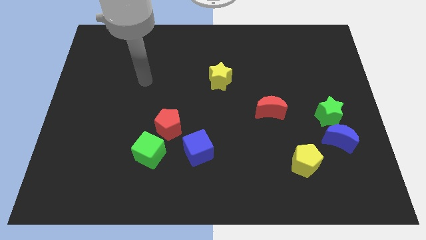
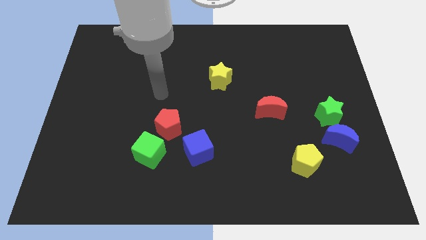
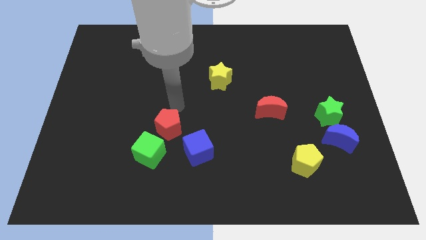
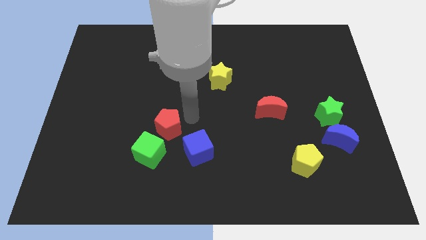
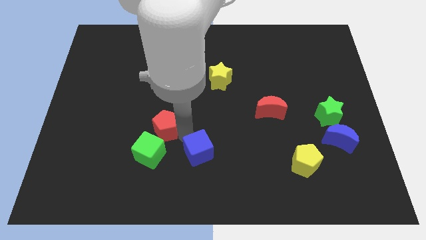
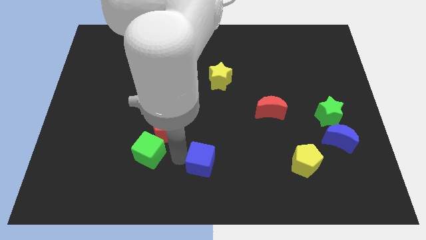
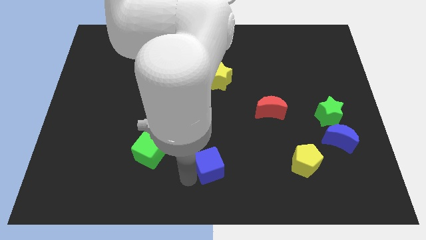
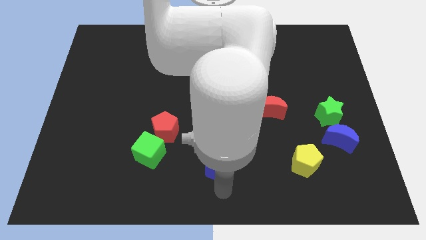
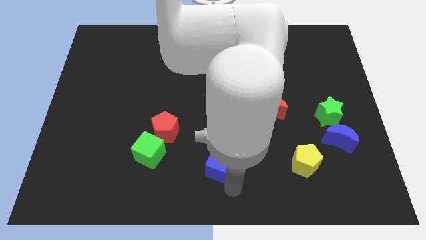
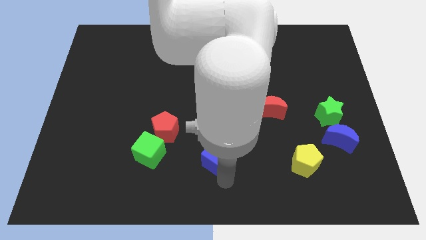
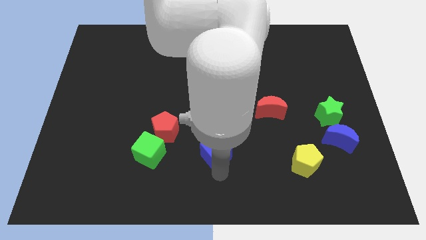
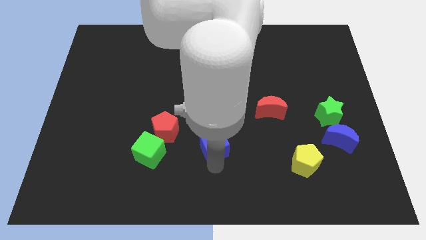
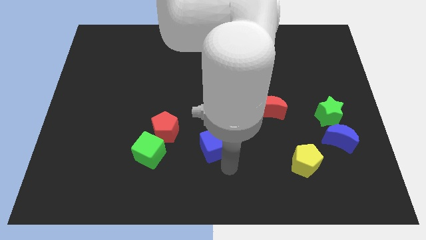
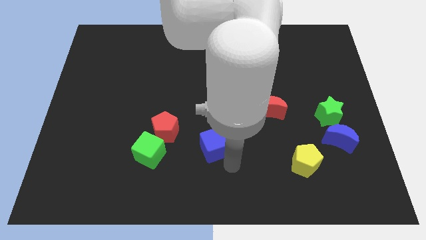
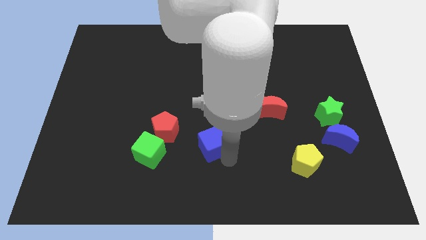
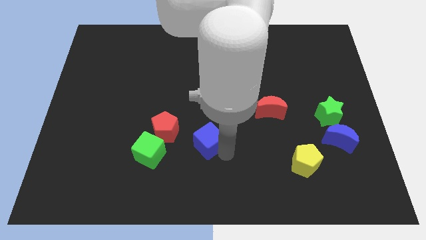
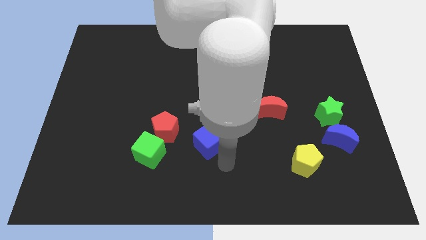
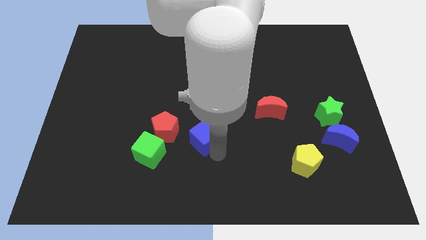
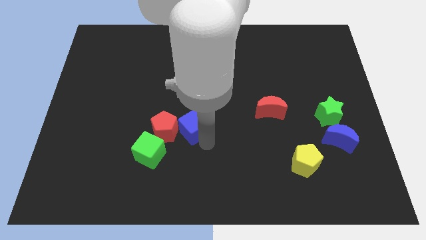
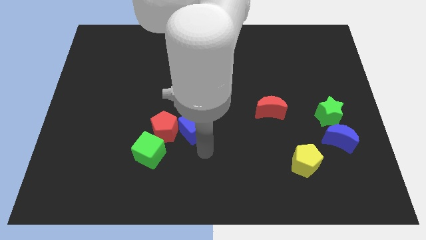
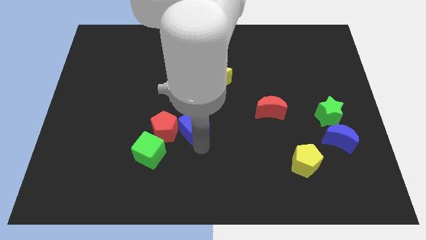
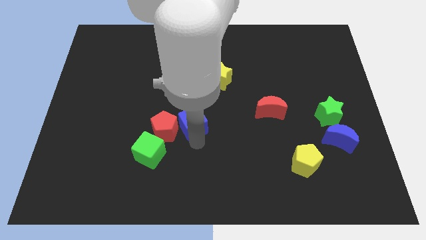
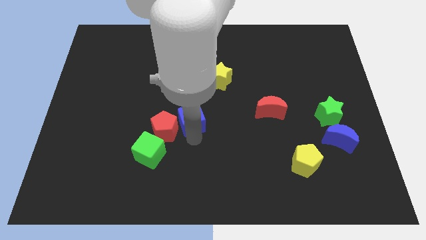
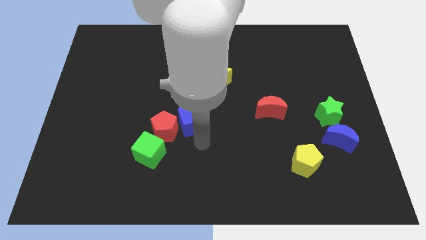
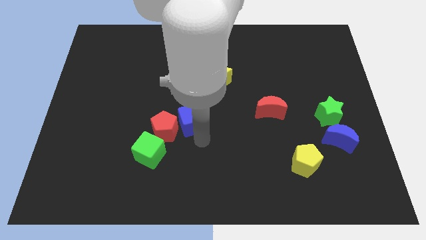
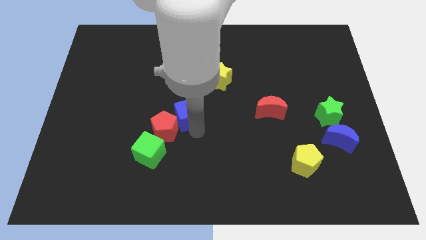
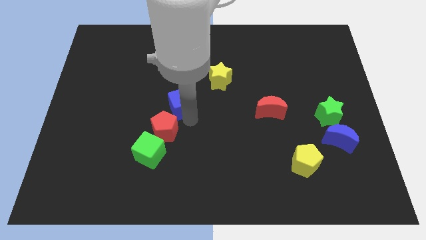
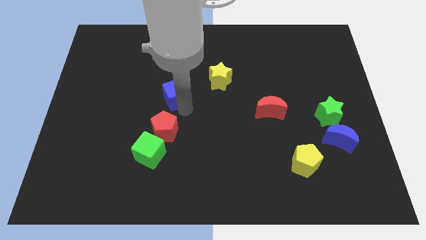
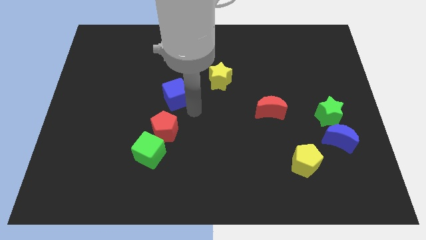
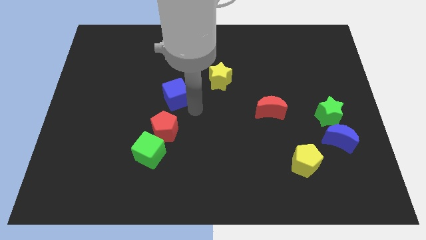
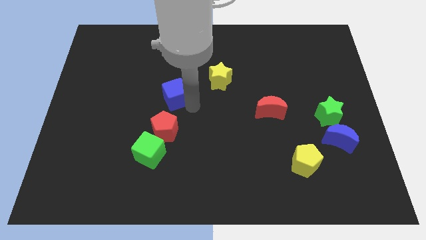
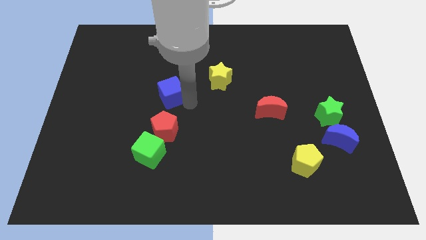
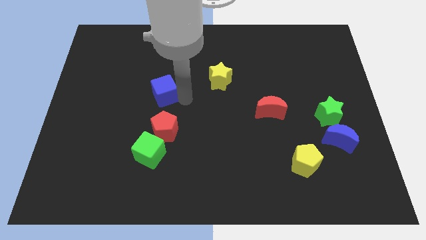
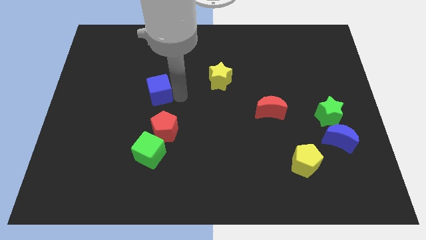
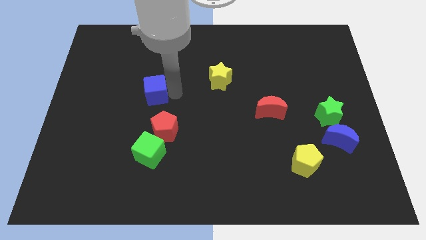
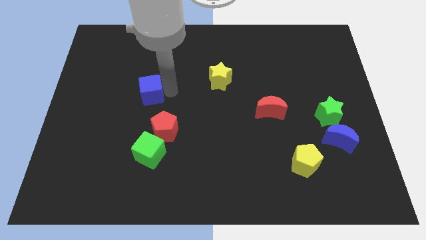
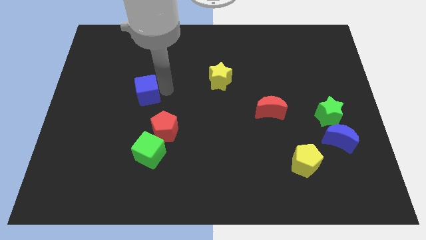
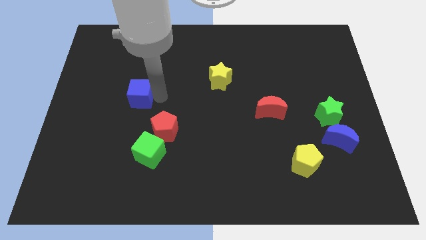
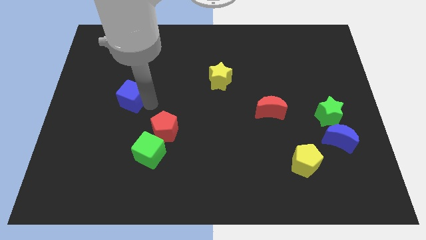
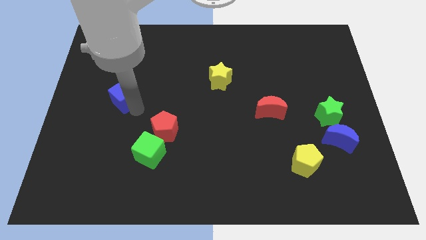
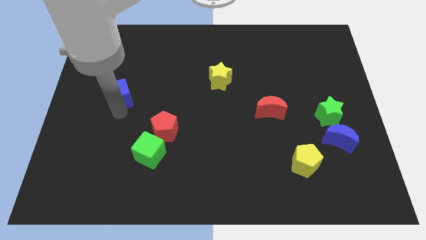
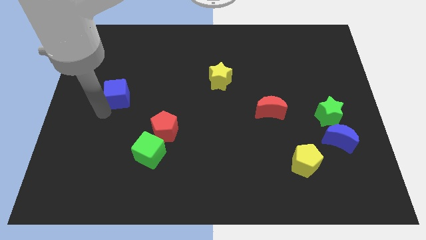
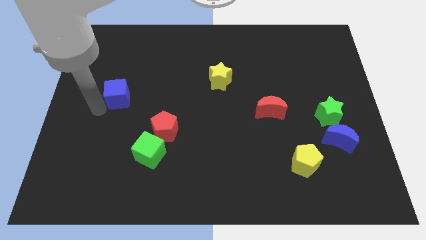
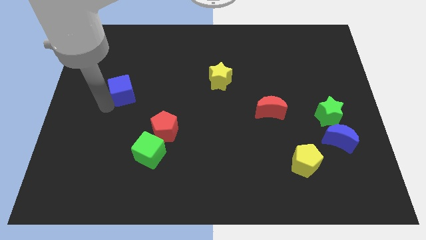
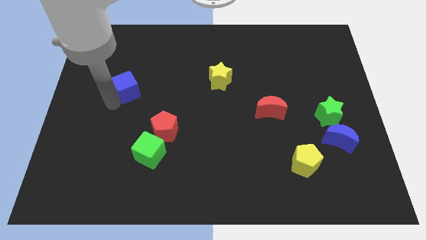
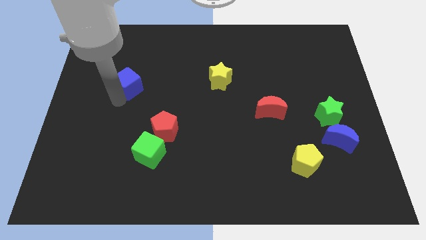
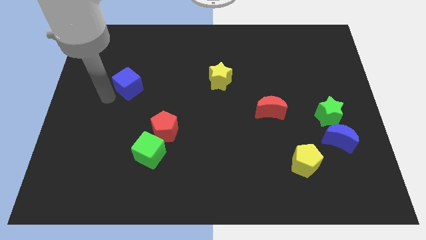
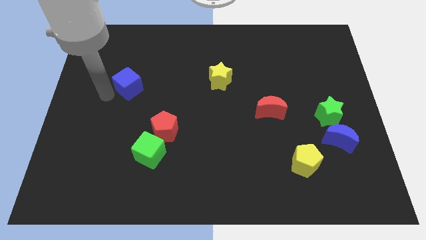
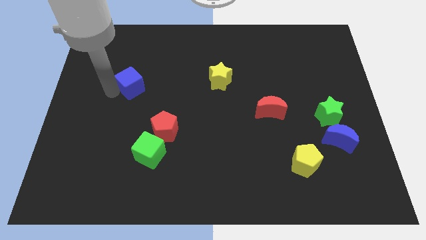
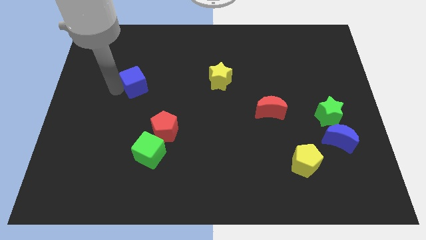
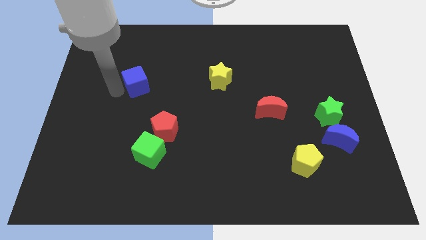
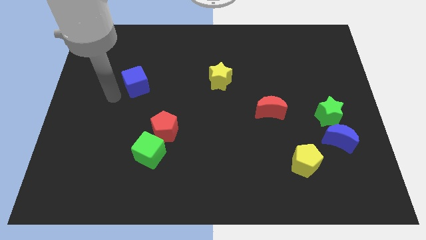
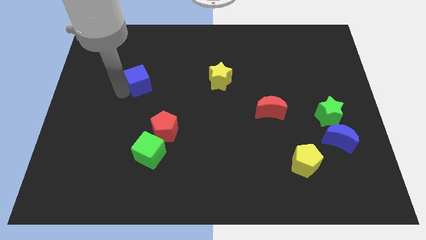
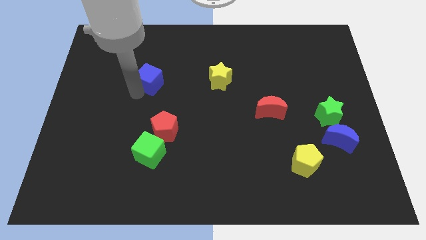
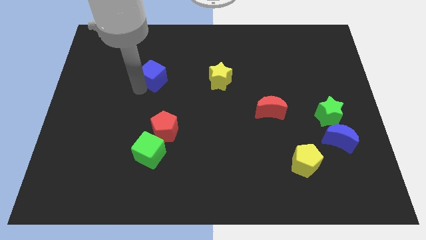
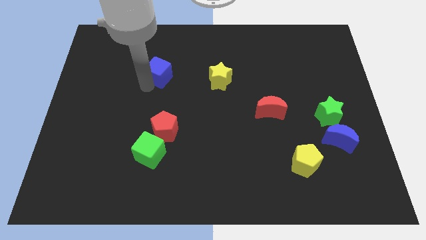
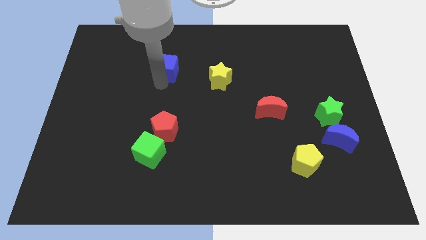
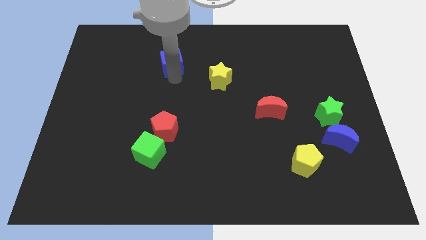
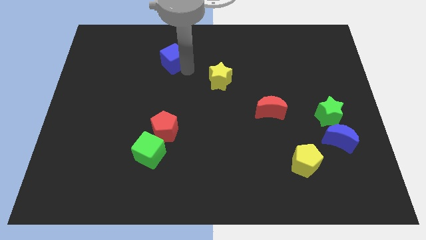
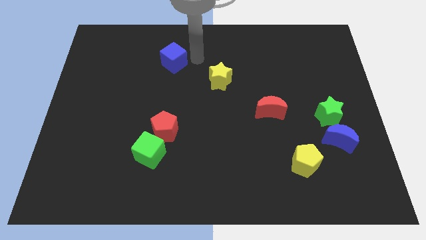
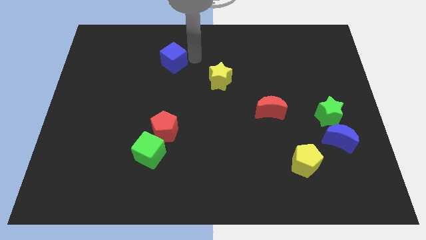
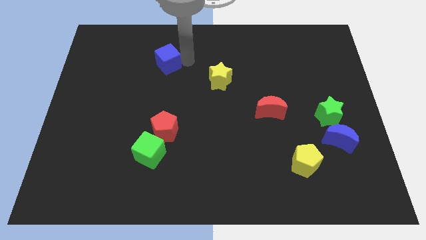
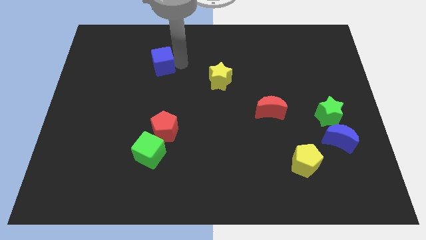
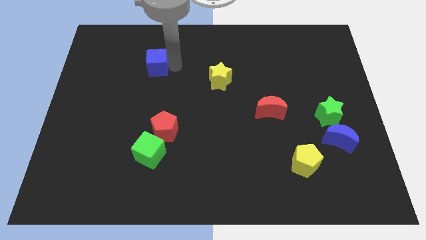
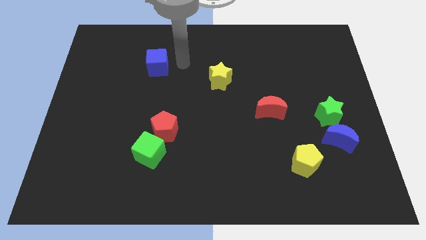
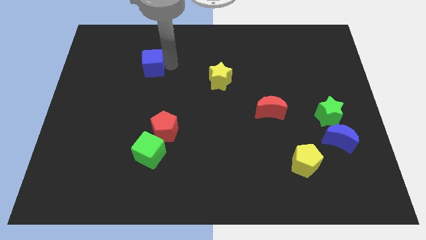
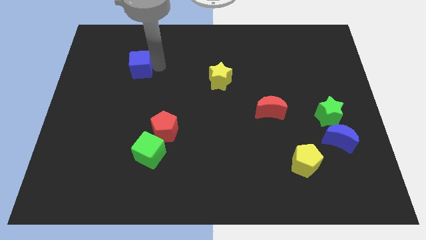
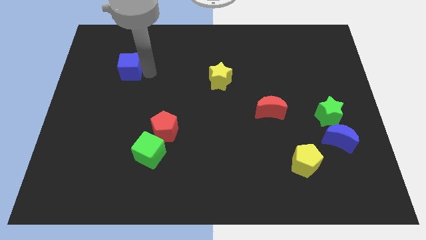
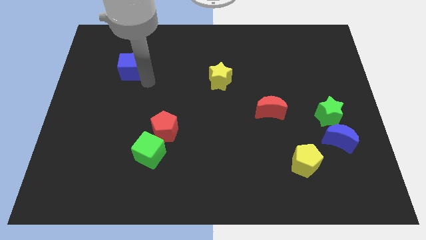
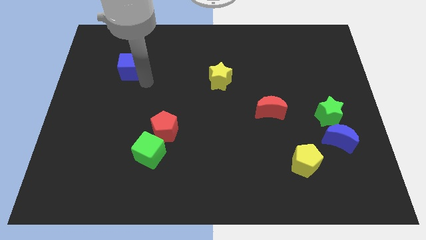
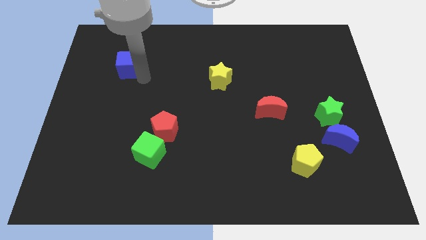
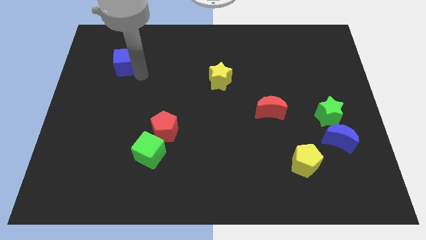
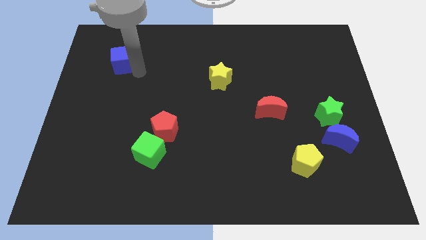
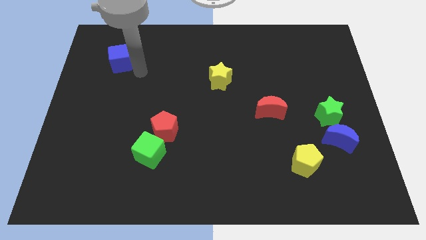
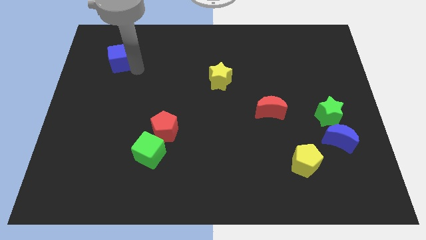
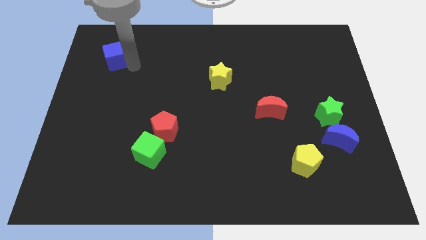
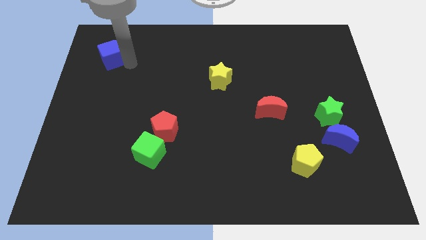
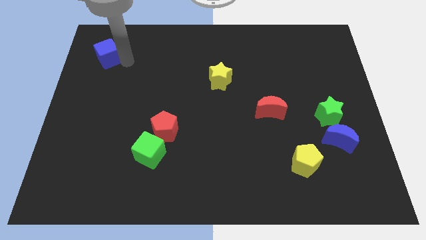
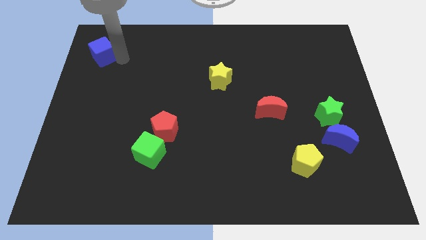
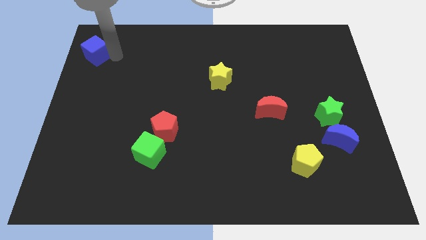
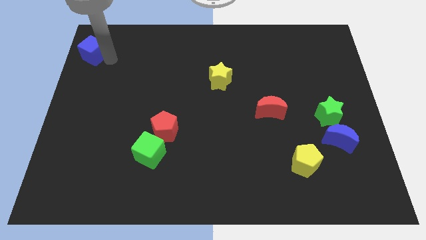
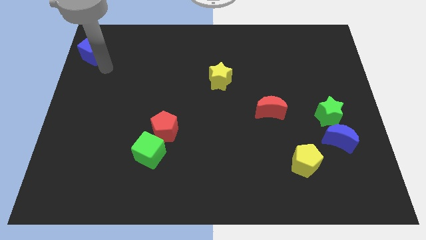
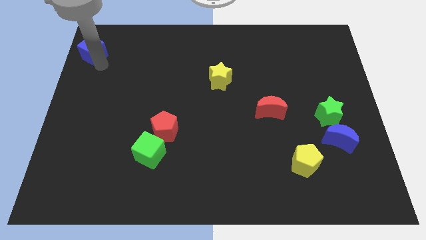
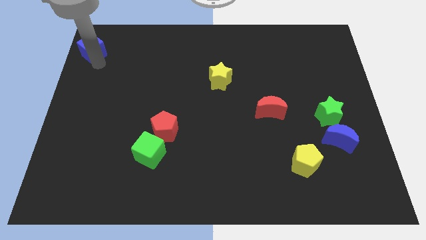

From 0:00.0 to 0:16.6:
move the blue cube to the top left of the board
